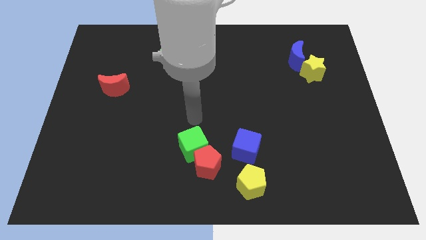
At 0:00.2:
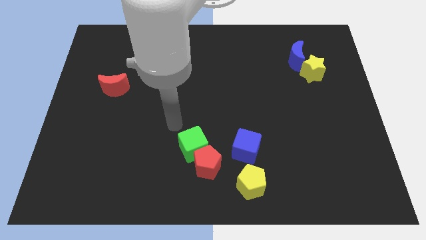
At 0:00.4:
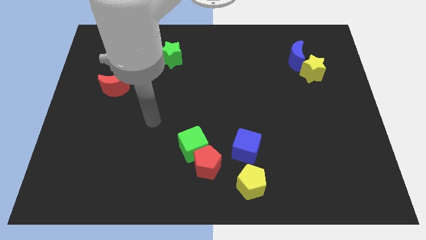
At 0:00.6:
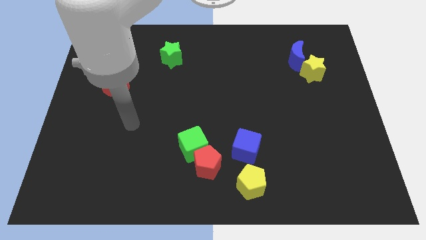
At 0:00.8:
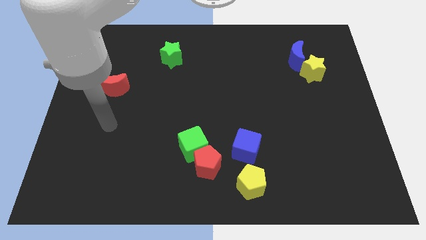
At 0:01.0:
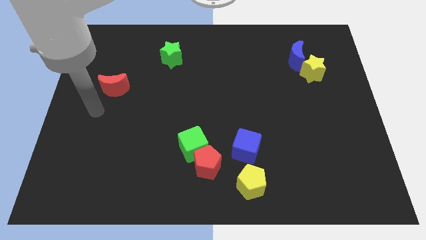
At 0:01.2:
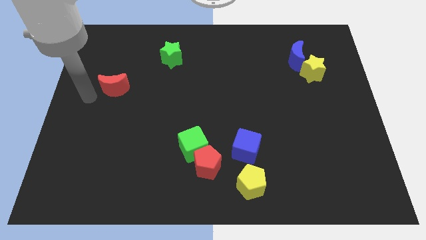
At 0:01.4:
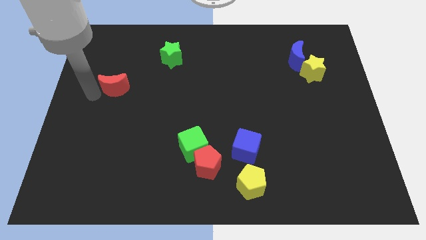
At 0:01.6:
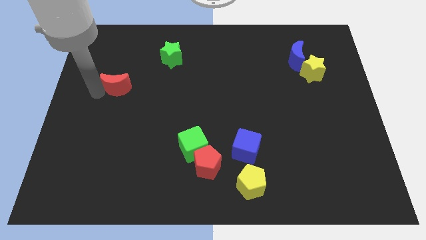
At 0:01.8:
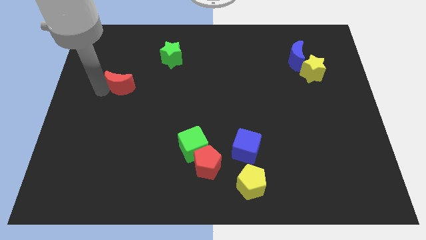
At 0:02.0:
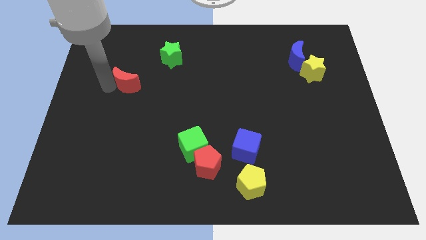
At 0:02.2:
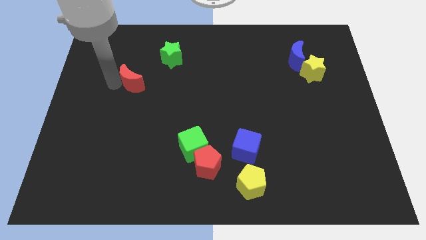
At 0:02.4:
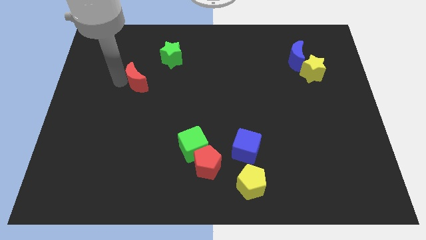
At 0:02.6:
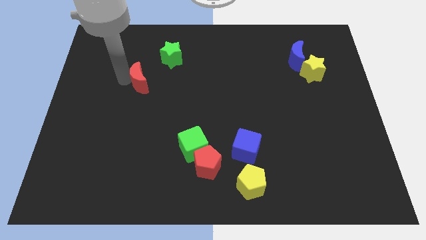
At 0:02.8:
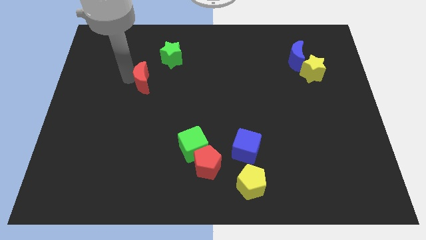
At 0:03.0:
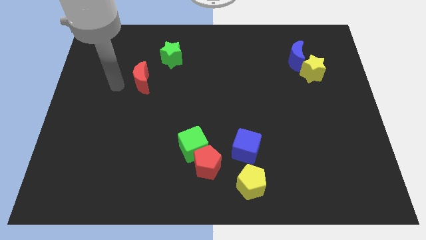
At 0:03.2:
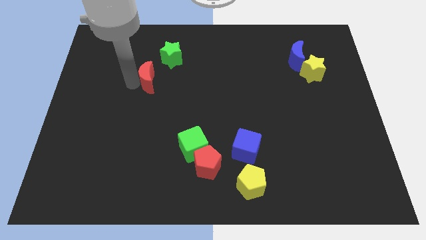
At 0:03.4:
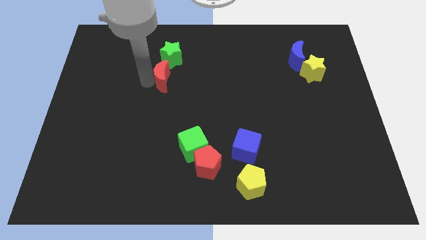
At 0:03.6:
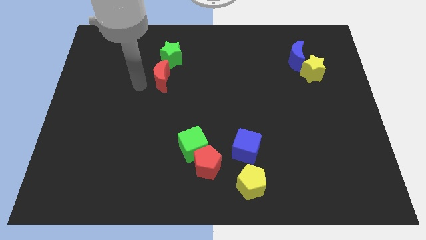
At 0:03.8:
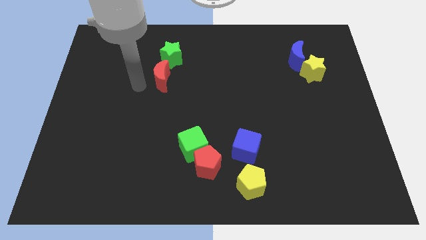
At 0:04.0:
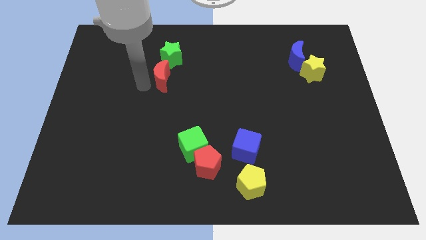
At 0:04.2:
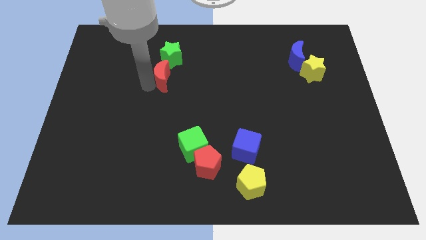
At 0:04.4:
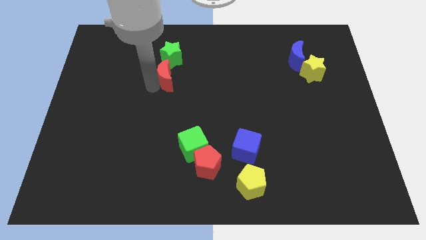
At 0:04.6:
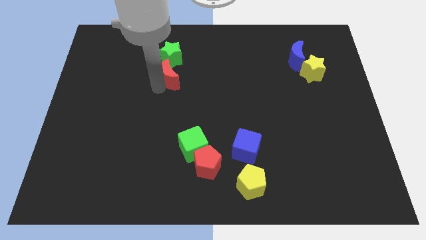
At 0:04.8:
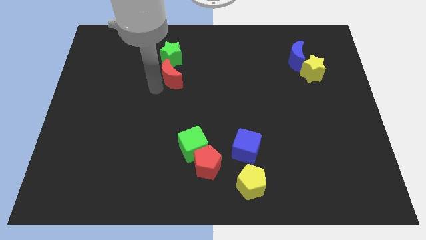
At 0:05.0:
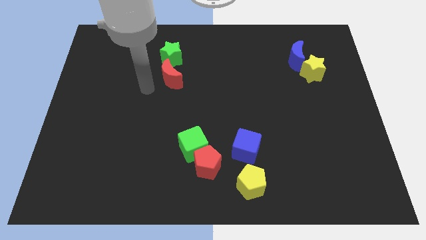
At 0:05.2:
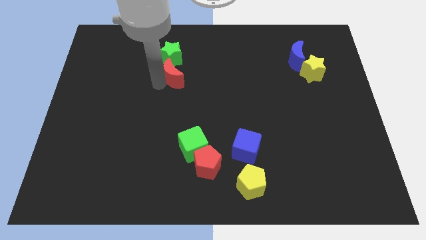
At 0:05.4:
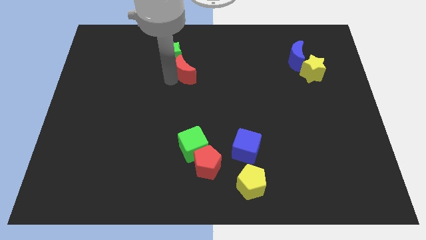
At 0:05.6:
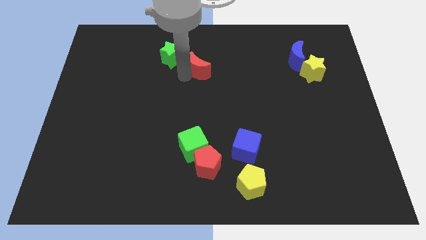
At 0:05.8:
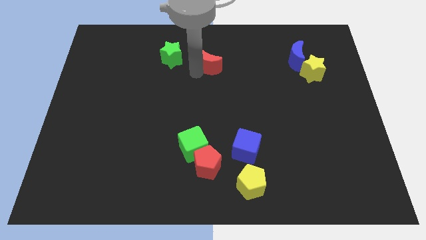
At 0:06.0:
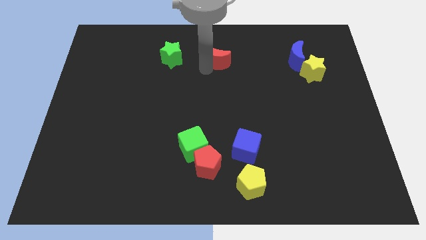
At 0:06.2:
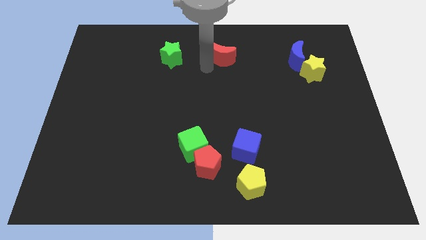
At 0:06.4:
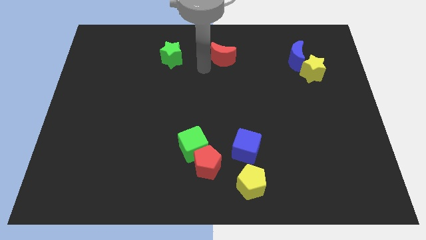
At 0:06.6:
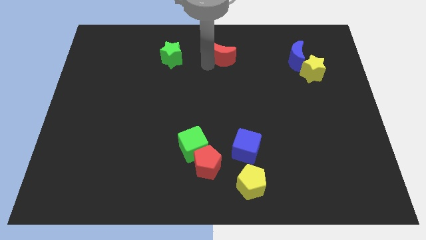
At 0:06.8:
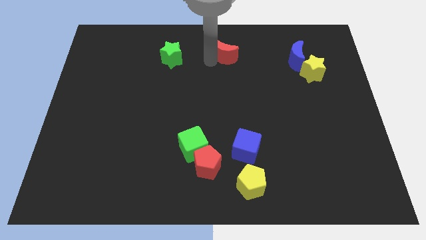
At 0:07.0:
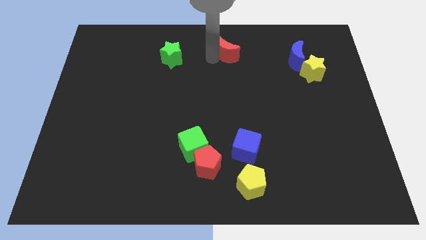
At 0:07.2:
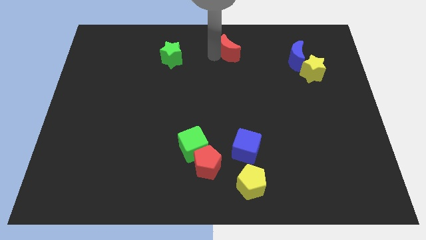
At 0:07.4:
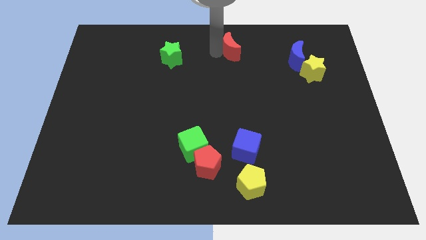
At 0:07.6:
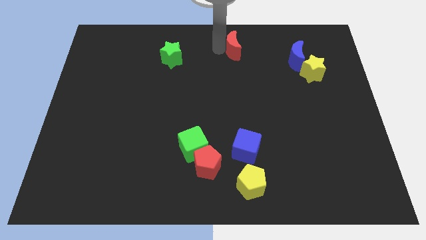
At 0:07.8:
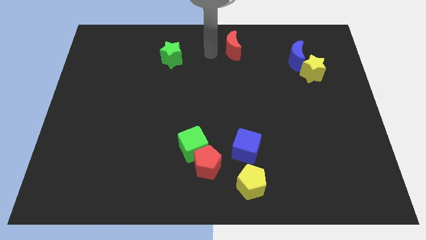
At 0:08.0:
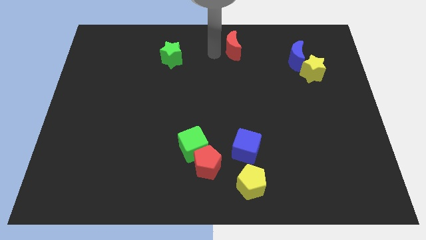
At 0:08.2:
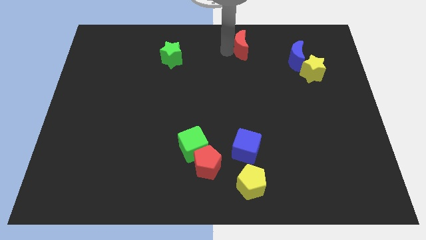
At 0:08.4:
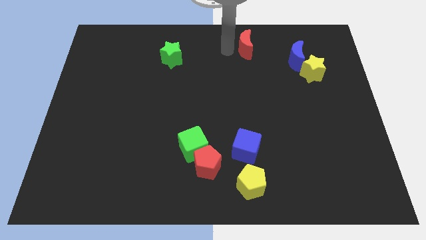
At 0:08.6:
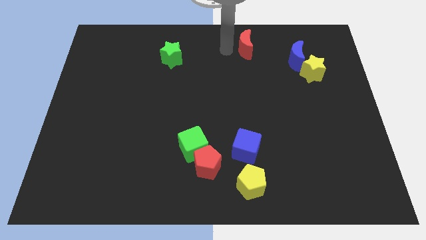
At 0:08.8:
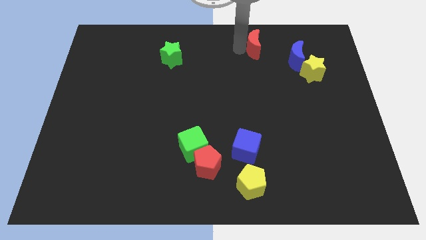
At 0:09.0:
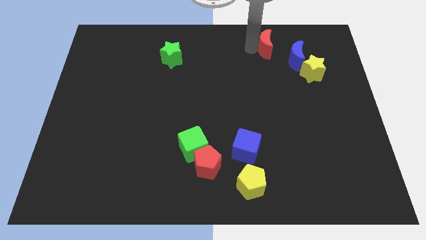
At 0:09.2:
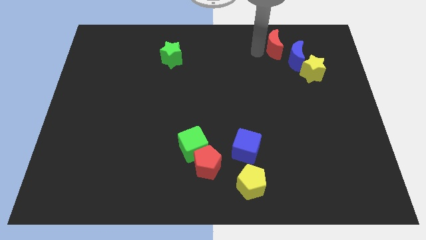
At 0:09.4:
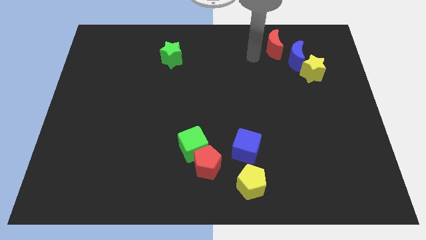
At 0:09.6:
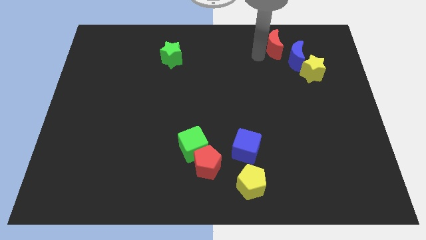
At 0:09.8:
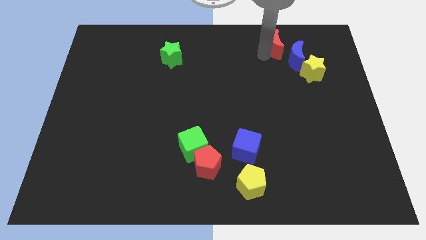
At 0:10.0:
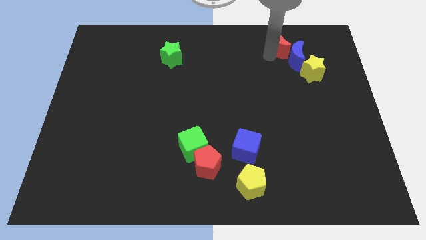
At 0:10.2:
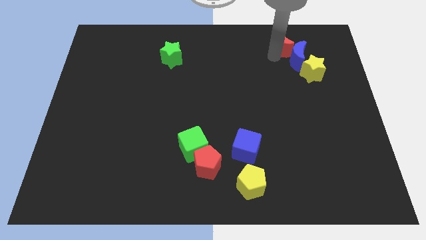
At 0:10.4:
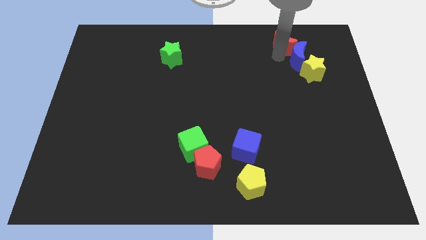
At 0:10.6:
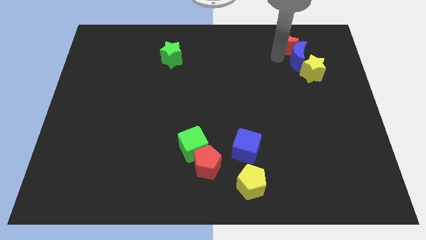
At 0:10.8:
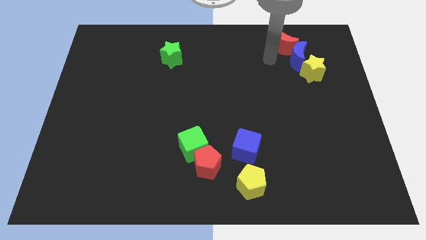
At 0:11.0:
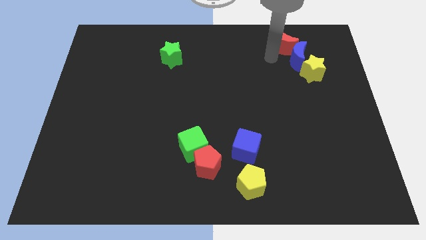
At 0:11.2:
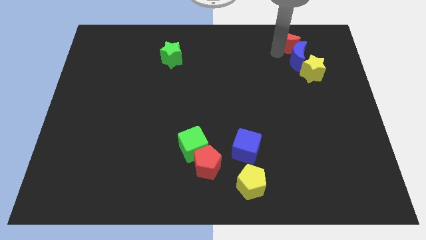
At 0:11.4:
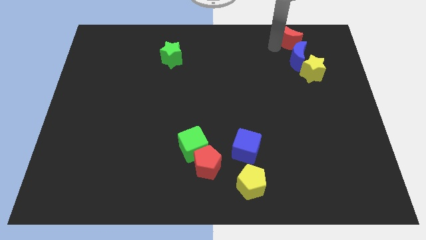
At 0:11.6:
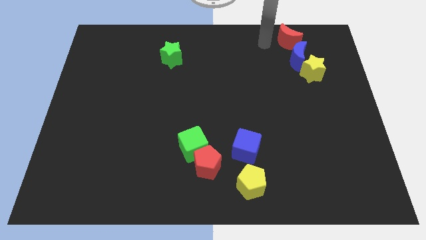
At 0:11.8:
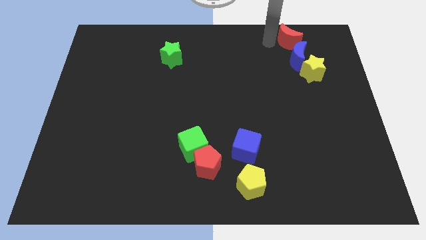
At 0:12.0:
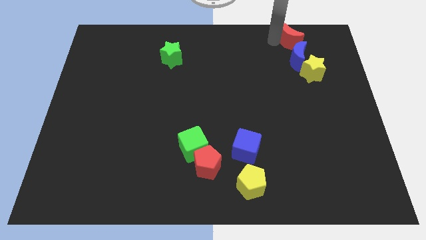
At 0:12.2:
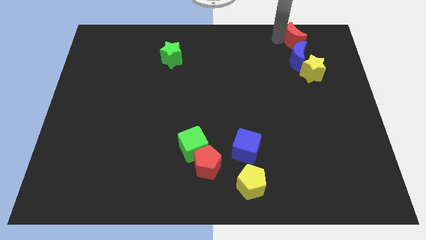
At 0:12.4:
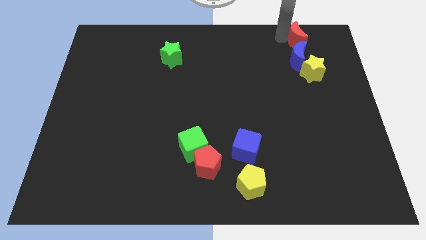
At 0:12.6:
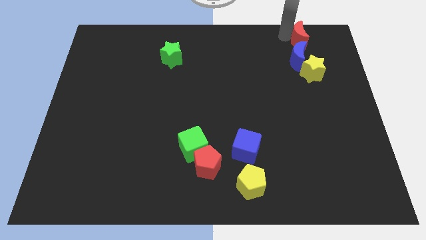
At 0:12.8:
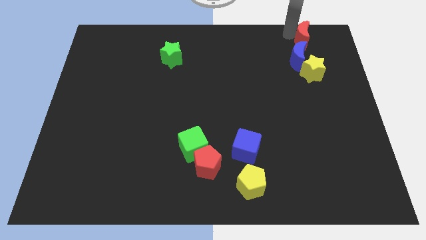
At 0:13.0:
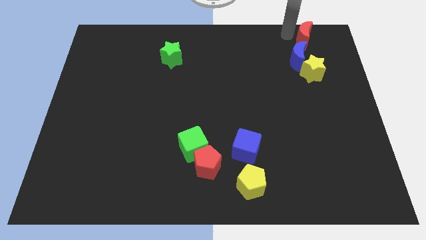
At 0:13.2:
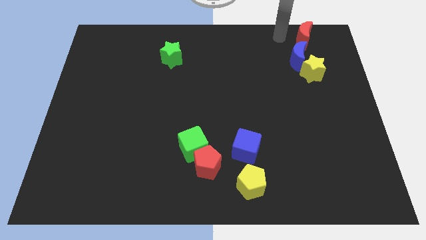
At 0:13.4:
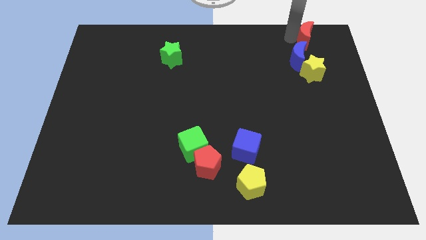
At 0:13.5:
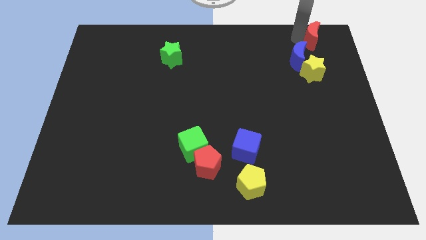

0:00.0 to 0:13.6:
push the red moon to the upper right corner

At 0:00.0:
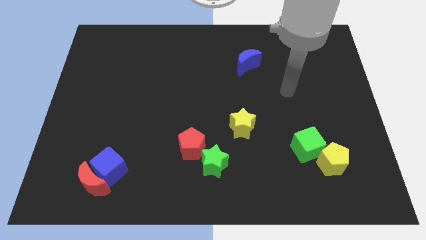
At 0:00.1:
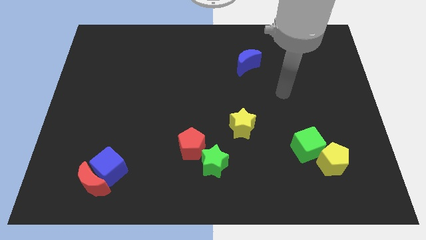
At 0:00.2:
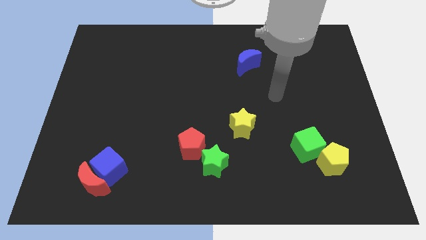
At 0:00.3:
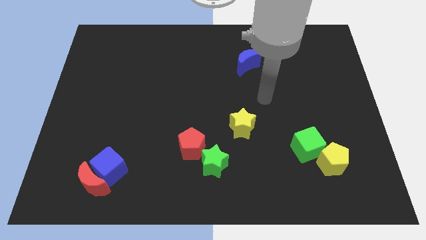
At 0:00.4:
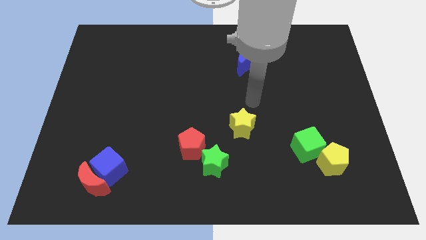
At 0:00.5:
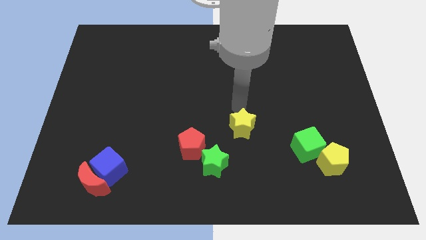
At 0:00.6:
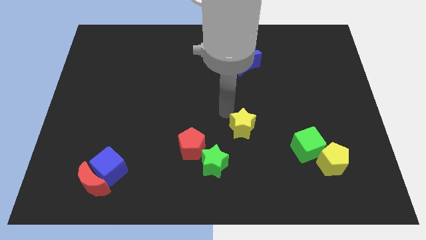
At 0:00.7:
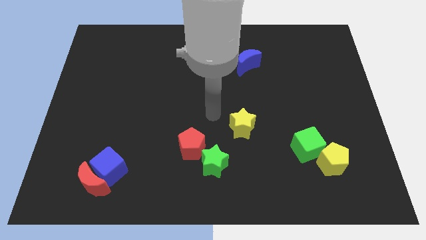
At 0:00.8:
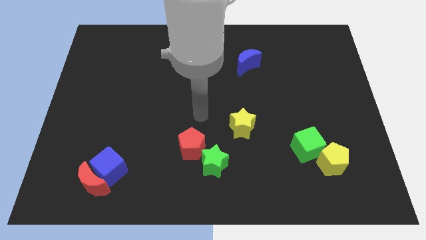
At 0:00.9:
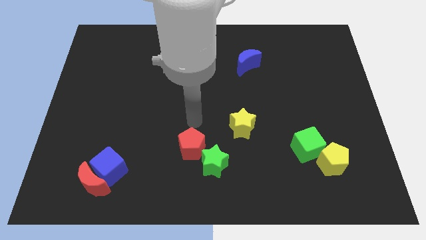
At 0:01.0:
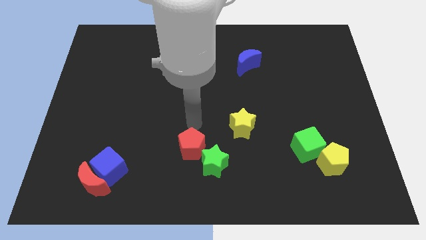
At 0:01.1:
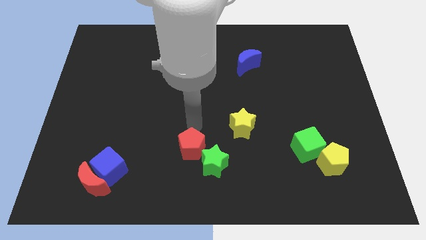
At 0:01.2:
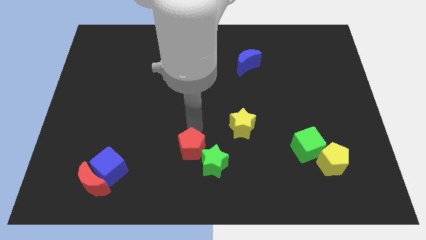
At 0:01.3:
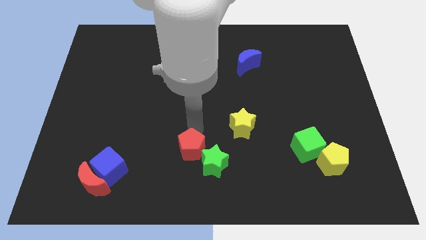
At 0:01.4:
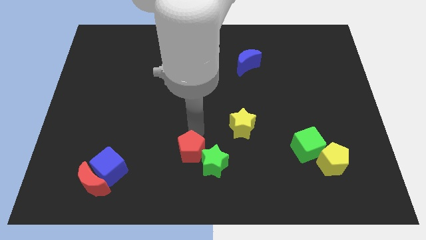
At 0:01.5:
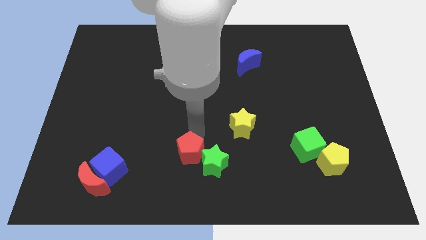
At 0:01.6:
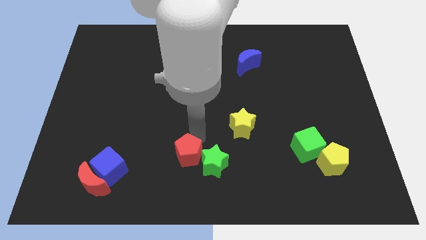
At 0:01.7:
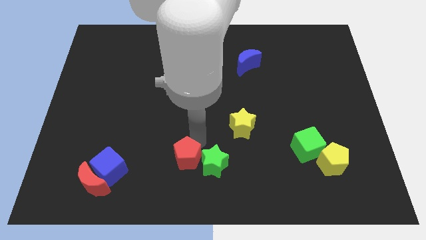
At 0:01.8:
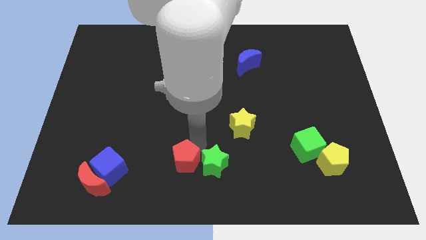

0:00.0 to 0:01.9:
move the red pentagon to the bottom side
